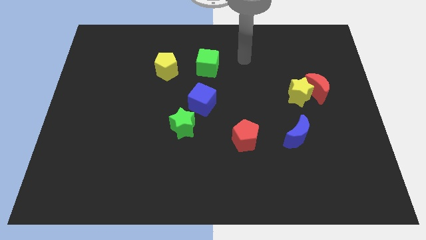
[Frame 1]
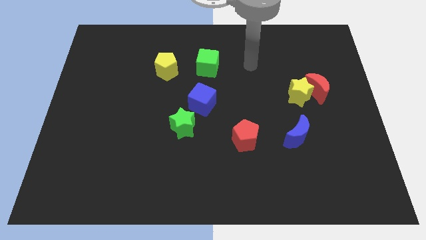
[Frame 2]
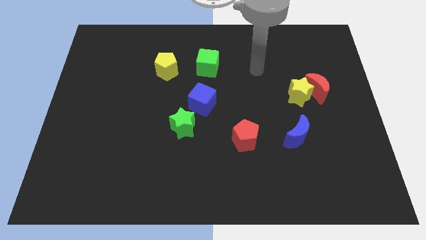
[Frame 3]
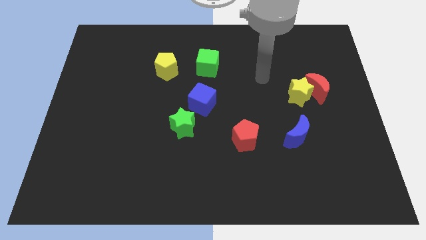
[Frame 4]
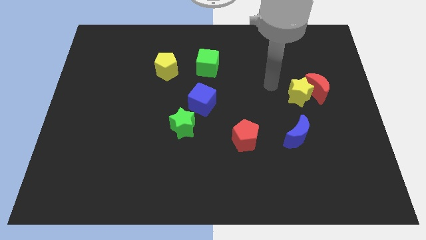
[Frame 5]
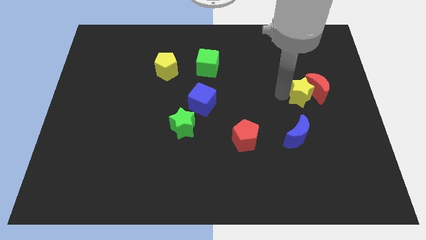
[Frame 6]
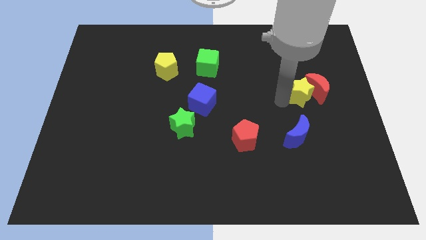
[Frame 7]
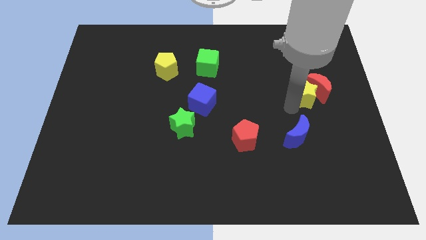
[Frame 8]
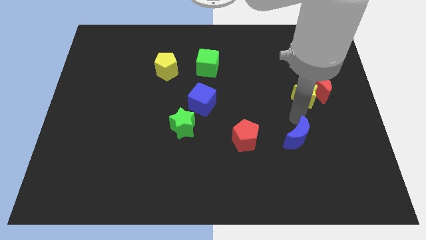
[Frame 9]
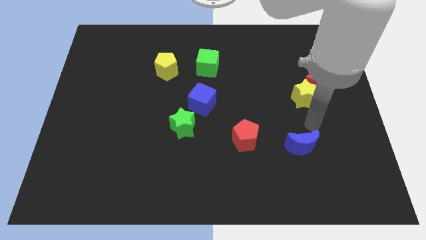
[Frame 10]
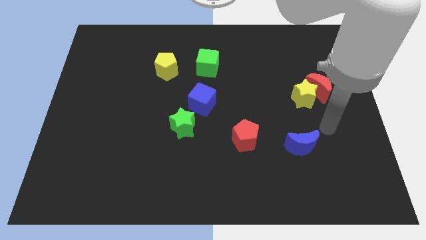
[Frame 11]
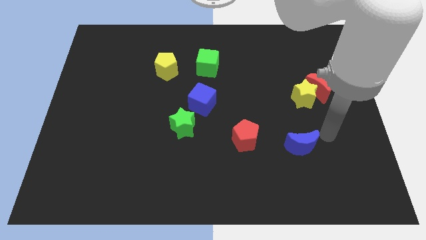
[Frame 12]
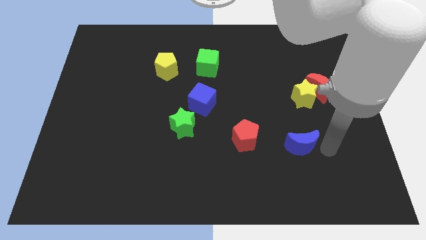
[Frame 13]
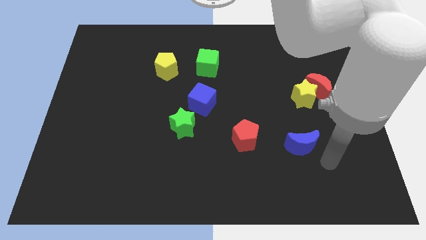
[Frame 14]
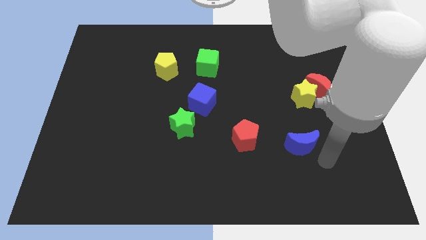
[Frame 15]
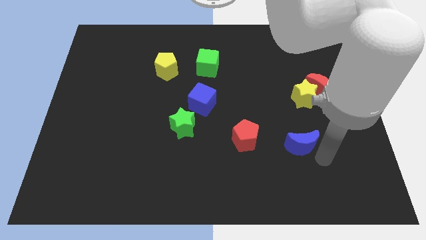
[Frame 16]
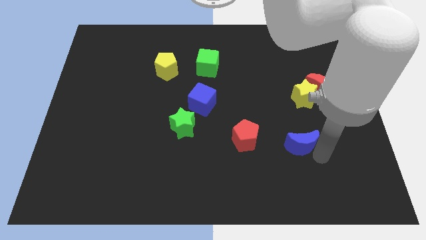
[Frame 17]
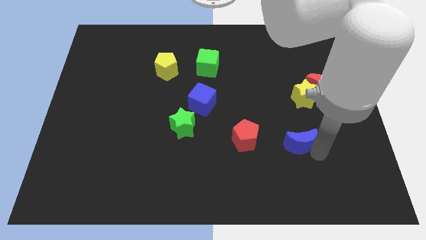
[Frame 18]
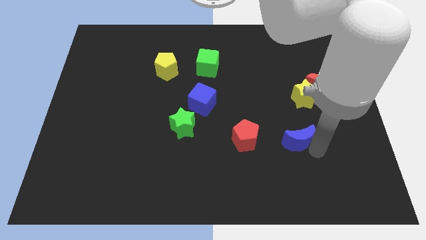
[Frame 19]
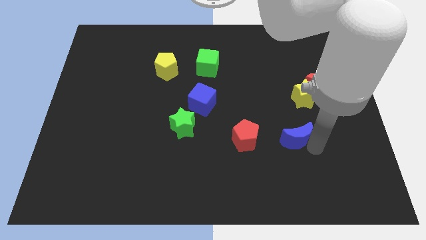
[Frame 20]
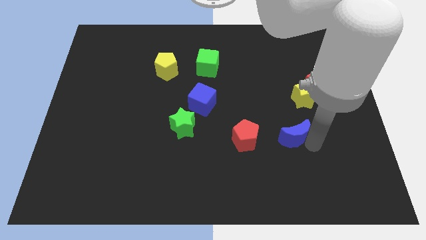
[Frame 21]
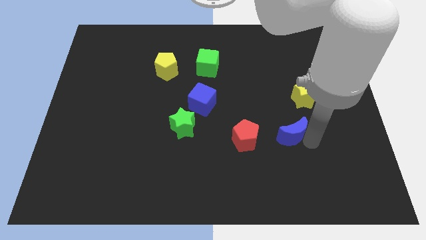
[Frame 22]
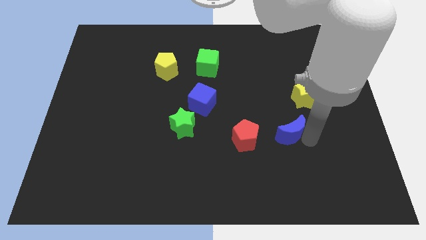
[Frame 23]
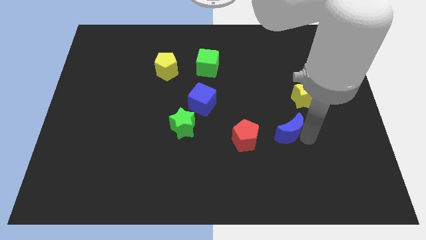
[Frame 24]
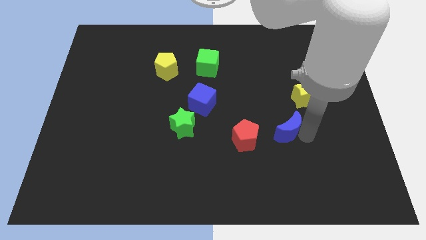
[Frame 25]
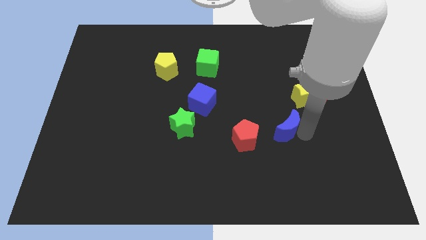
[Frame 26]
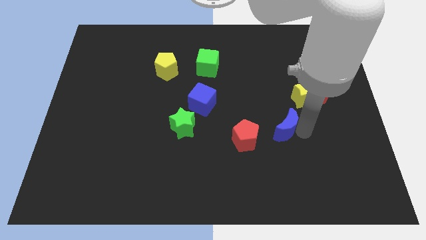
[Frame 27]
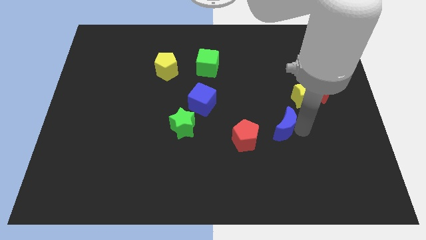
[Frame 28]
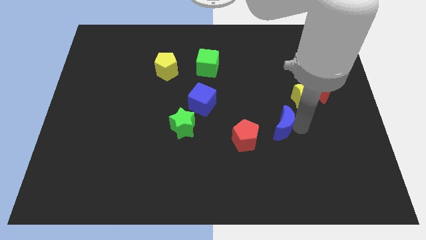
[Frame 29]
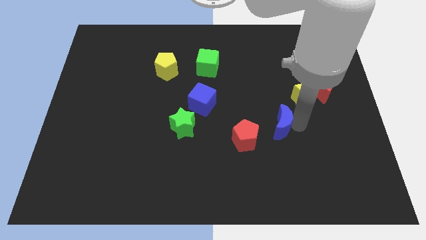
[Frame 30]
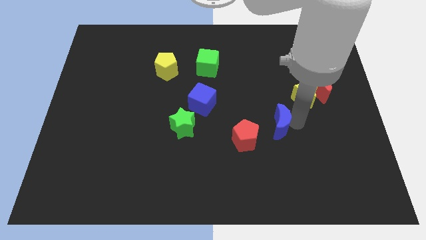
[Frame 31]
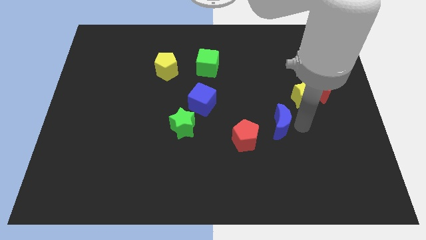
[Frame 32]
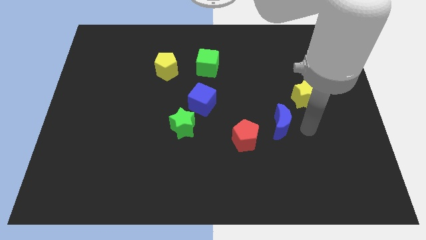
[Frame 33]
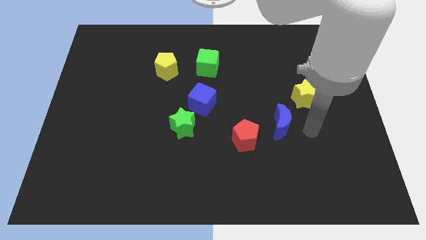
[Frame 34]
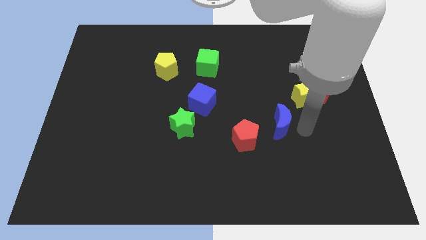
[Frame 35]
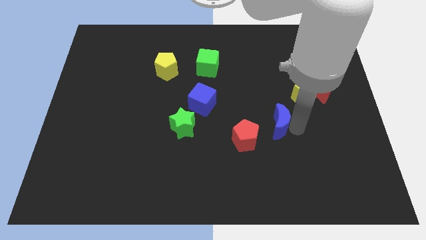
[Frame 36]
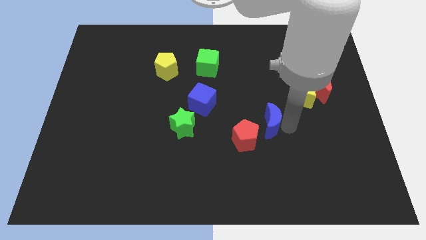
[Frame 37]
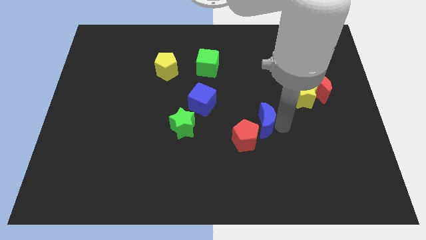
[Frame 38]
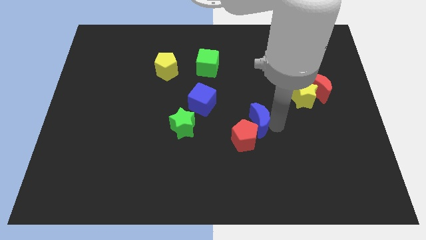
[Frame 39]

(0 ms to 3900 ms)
push the blue moon slightly to the left

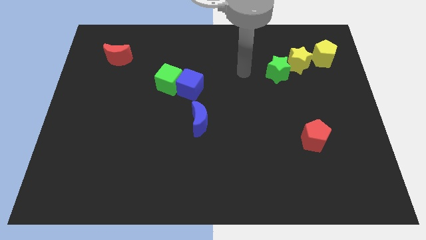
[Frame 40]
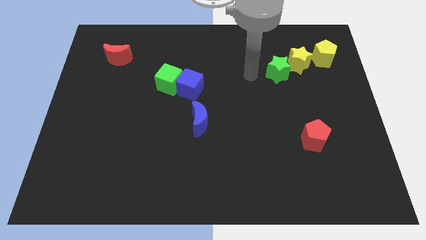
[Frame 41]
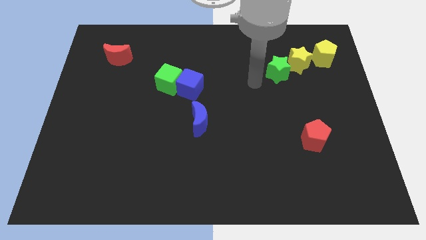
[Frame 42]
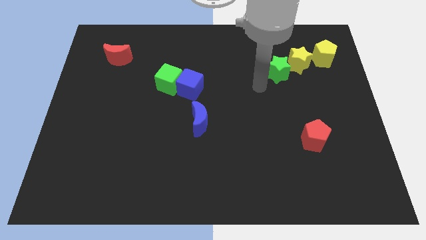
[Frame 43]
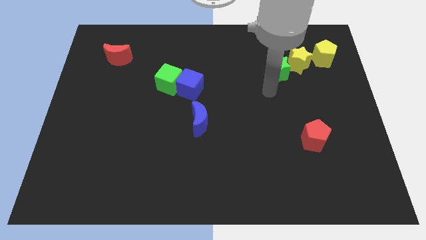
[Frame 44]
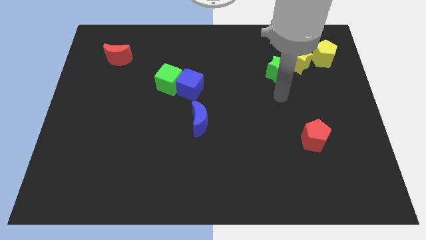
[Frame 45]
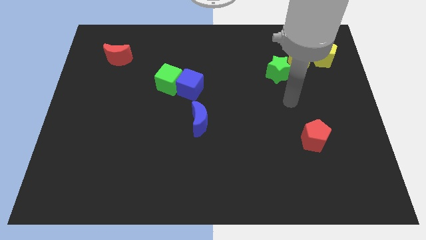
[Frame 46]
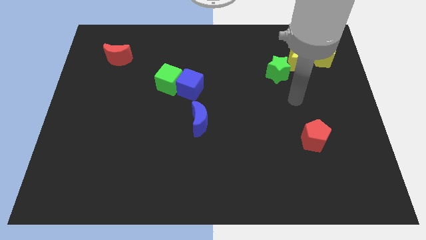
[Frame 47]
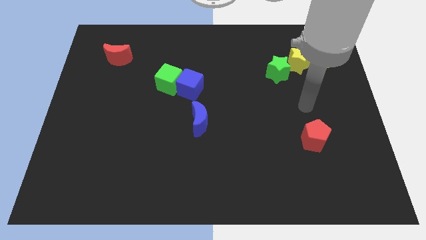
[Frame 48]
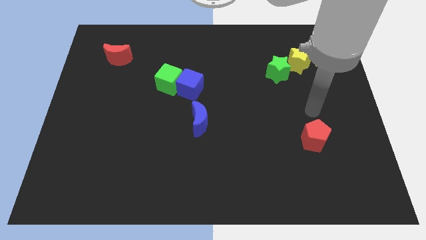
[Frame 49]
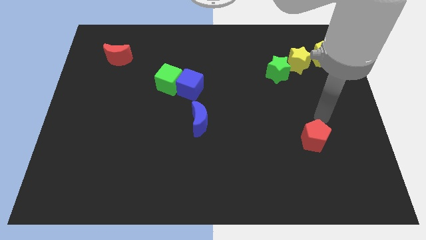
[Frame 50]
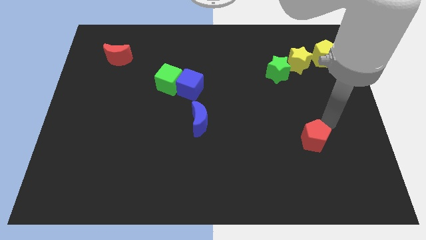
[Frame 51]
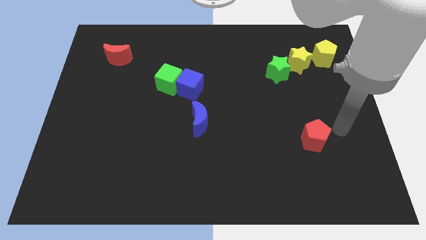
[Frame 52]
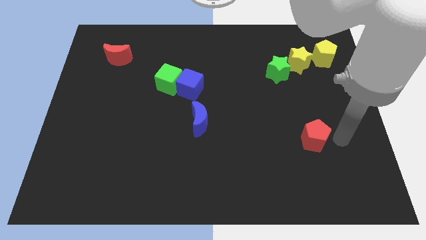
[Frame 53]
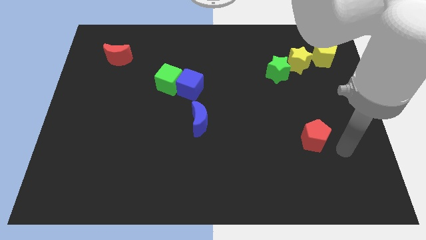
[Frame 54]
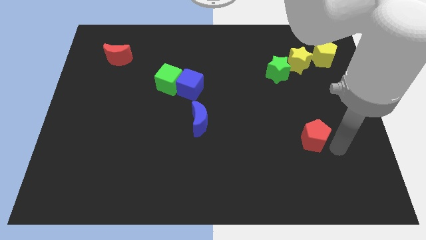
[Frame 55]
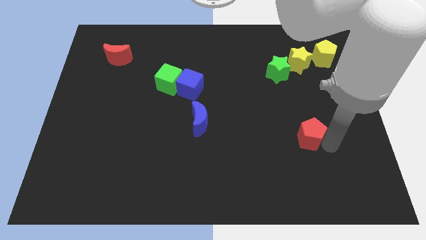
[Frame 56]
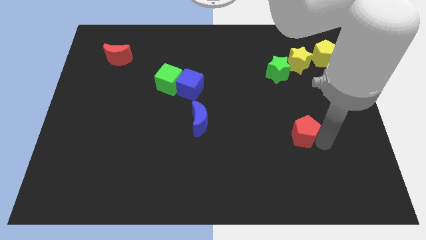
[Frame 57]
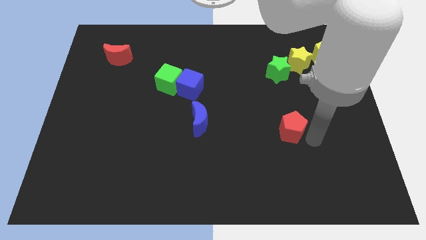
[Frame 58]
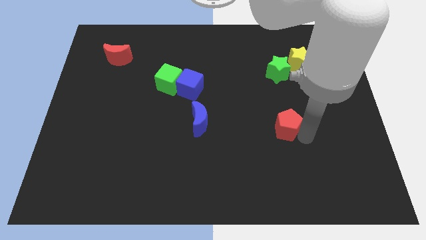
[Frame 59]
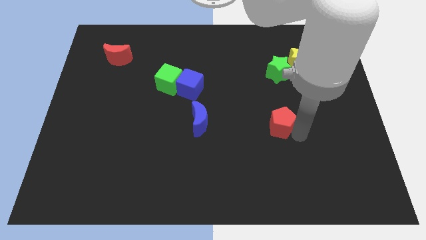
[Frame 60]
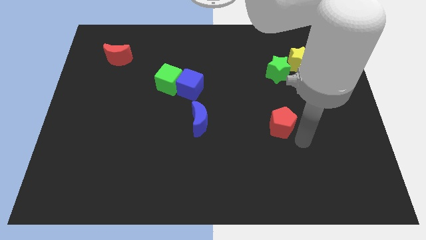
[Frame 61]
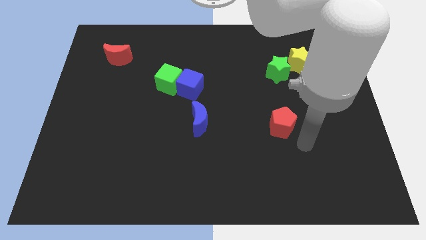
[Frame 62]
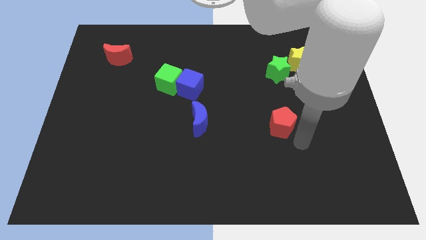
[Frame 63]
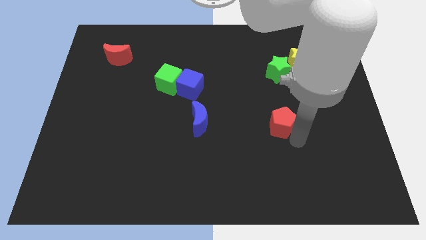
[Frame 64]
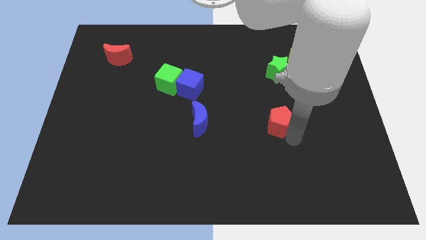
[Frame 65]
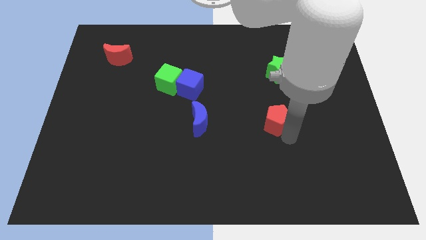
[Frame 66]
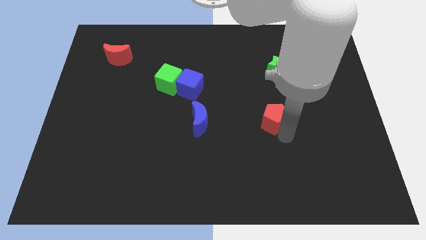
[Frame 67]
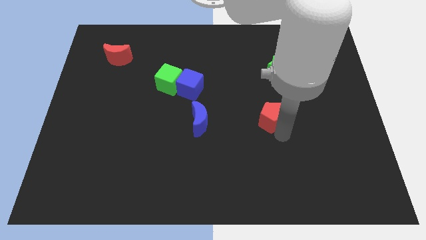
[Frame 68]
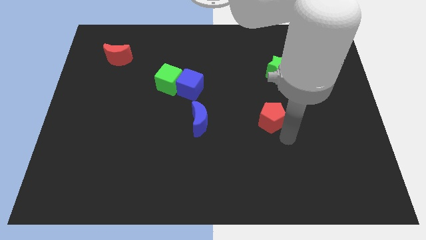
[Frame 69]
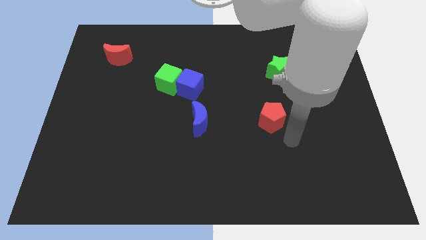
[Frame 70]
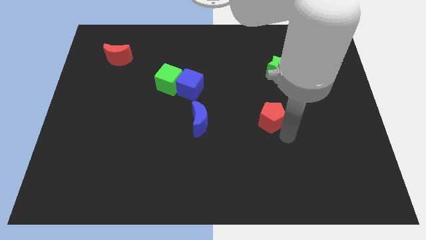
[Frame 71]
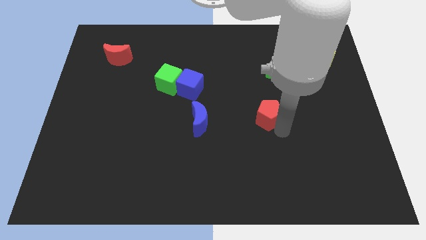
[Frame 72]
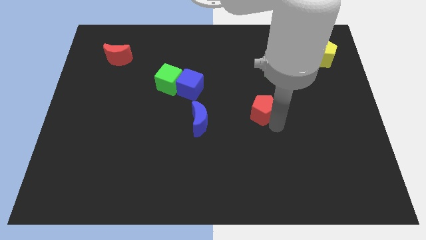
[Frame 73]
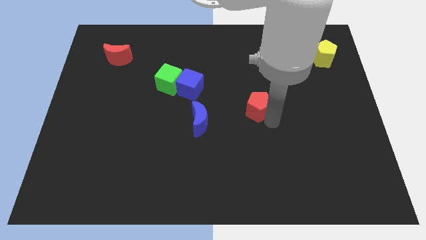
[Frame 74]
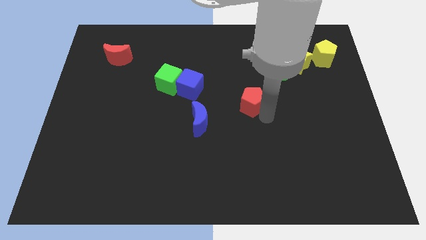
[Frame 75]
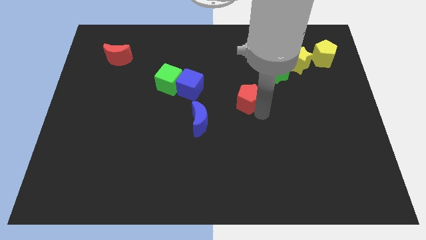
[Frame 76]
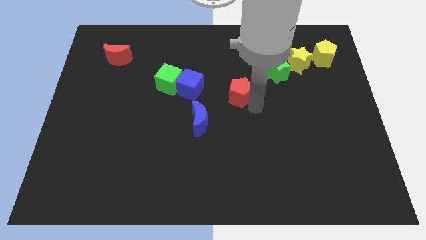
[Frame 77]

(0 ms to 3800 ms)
slide the red pentagon up and to the left diagonally
